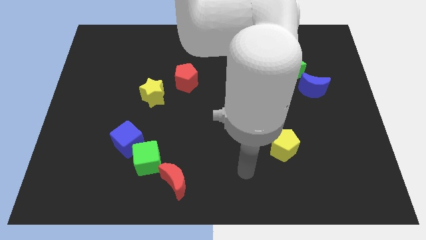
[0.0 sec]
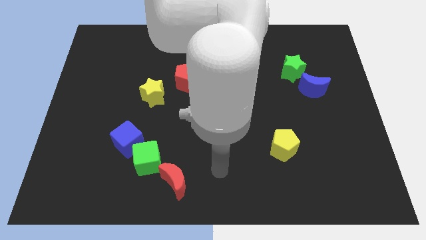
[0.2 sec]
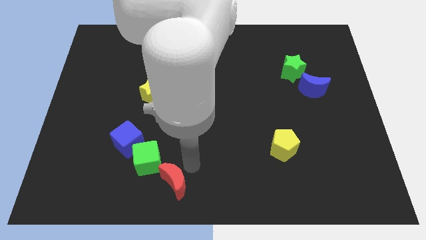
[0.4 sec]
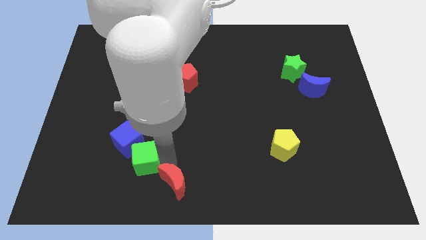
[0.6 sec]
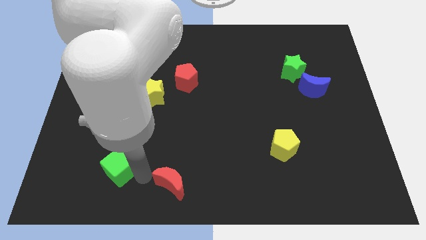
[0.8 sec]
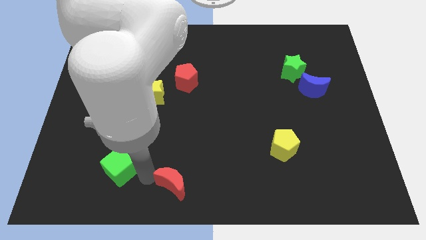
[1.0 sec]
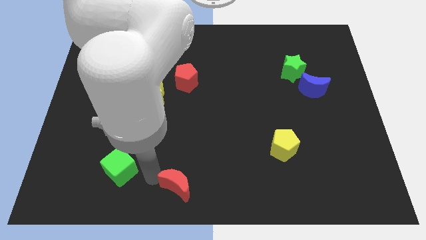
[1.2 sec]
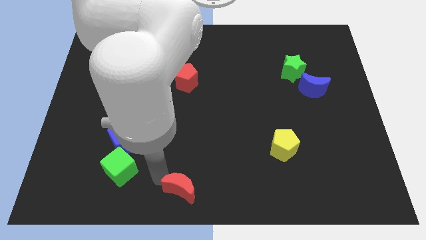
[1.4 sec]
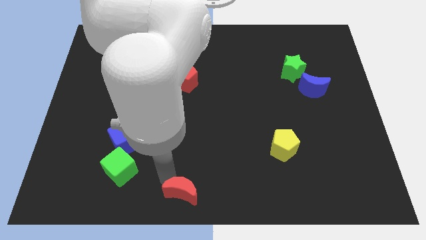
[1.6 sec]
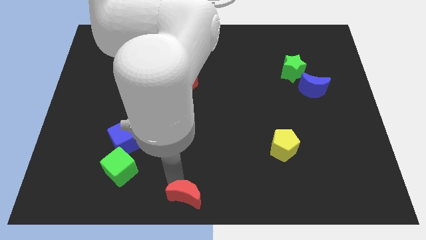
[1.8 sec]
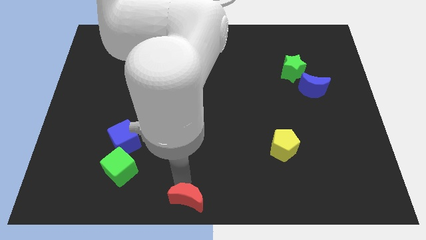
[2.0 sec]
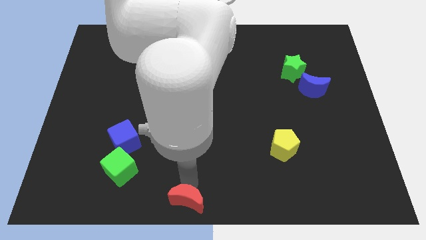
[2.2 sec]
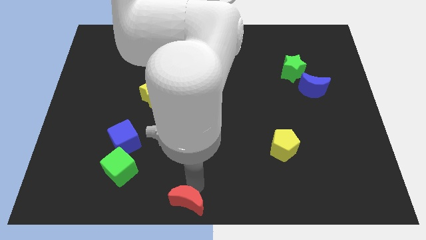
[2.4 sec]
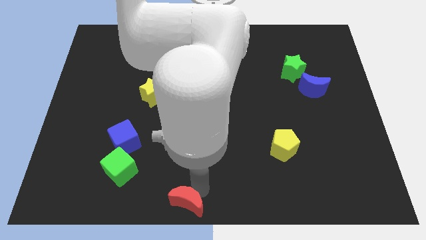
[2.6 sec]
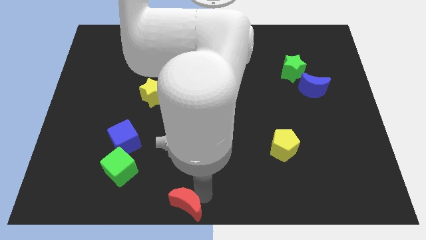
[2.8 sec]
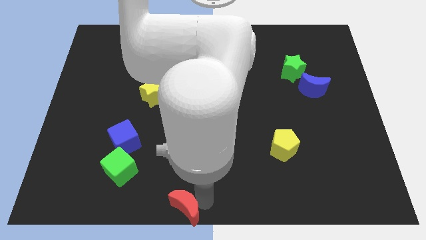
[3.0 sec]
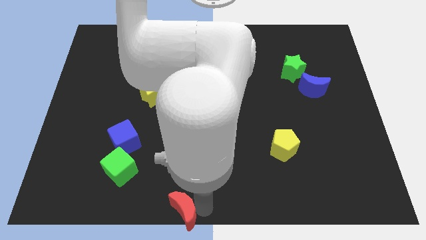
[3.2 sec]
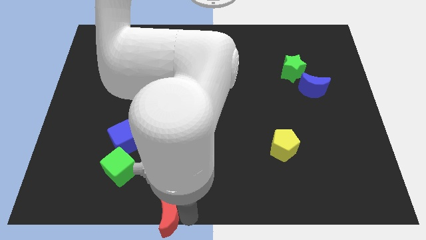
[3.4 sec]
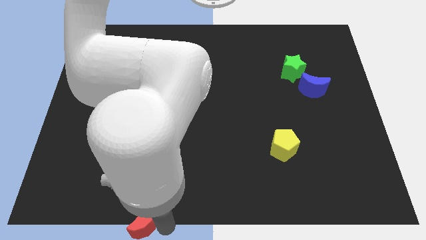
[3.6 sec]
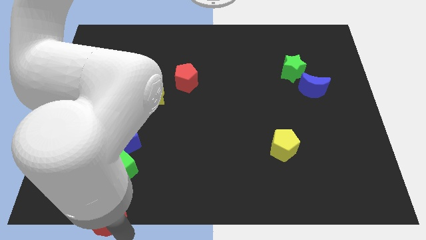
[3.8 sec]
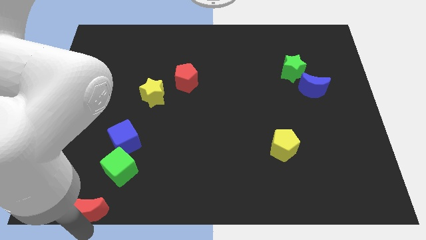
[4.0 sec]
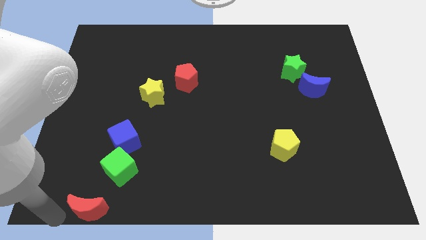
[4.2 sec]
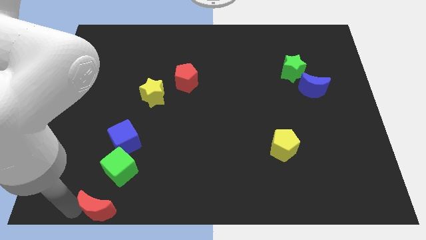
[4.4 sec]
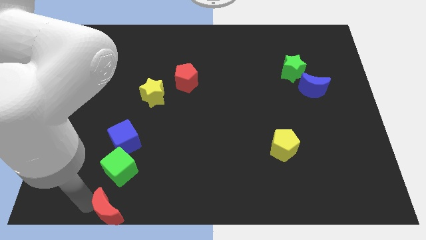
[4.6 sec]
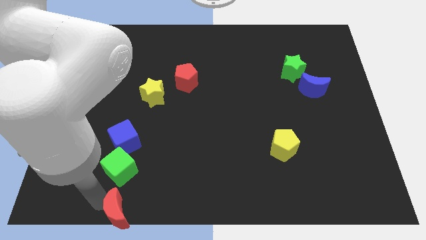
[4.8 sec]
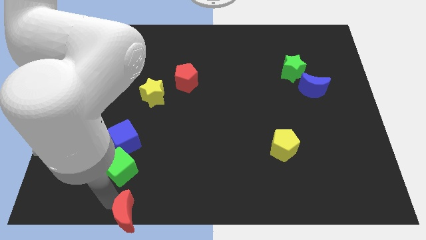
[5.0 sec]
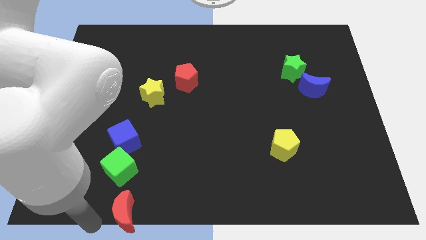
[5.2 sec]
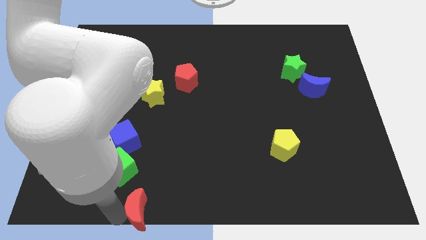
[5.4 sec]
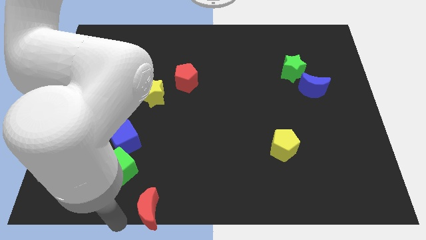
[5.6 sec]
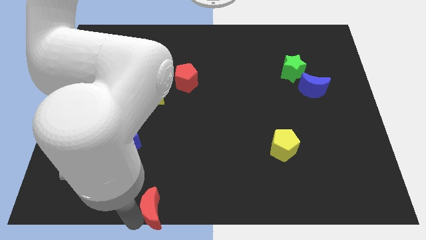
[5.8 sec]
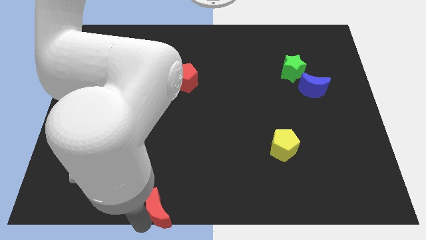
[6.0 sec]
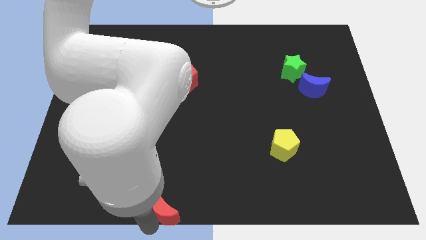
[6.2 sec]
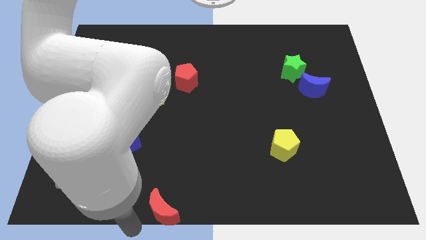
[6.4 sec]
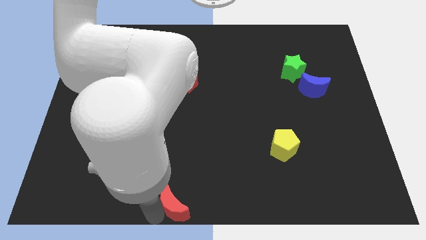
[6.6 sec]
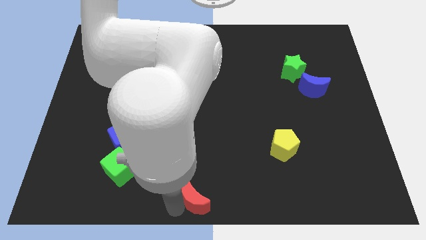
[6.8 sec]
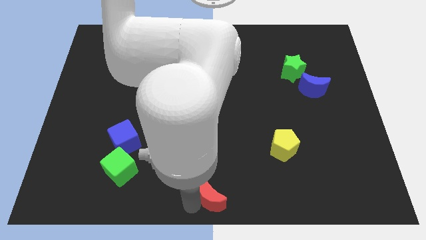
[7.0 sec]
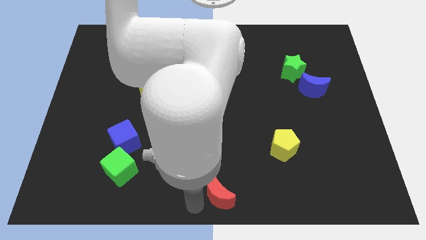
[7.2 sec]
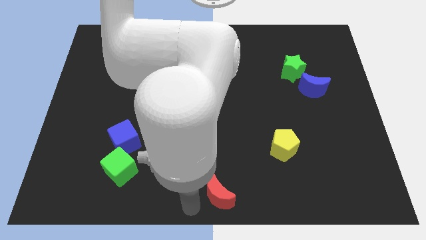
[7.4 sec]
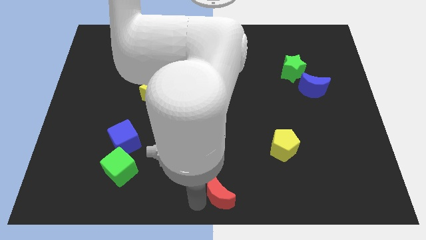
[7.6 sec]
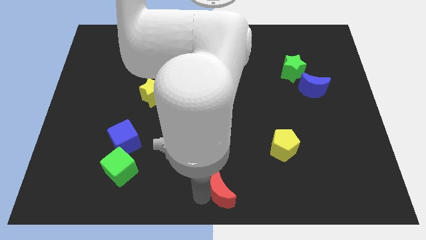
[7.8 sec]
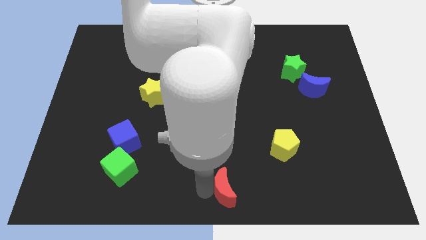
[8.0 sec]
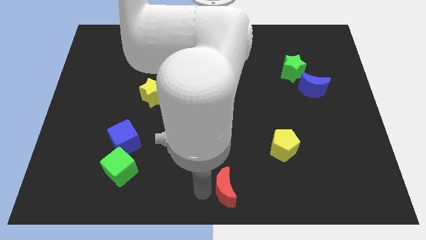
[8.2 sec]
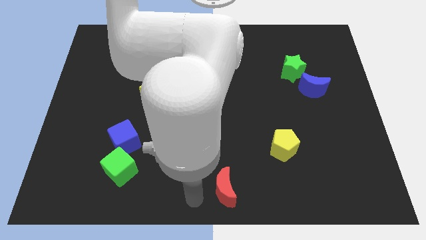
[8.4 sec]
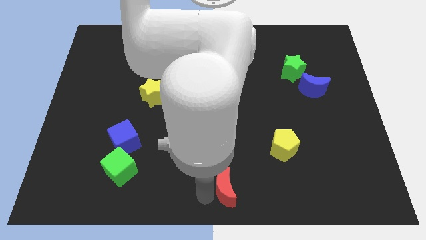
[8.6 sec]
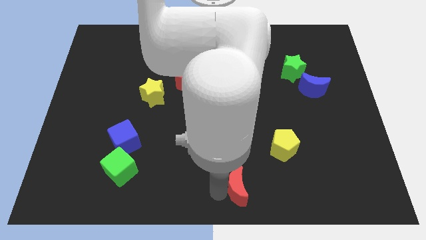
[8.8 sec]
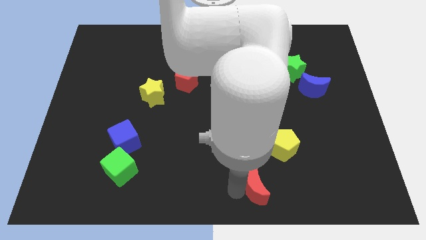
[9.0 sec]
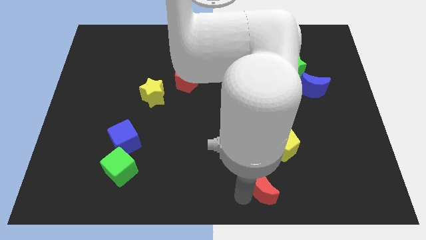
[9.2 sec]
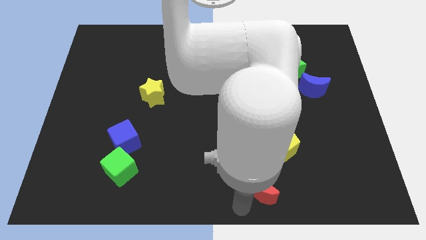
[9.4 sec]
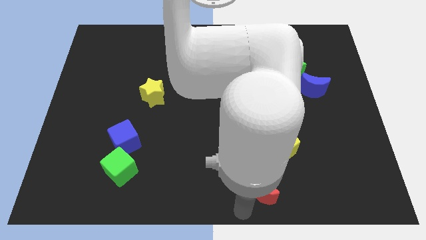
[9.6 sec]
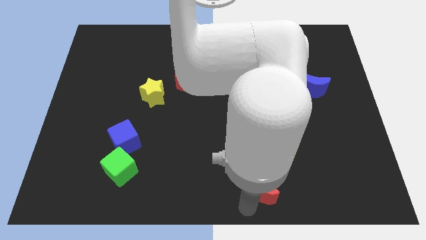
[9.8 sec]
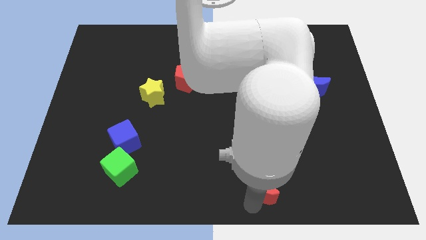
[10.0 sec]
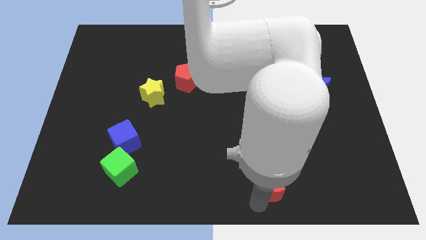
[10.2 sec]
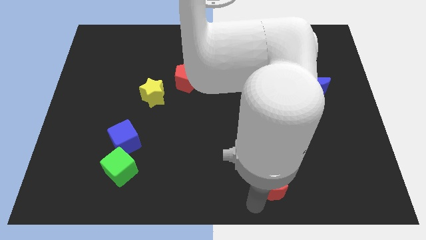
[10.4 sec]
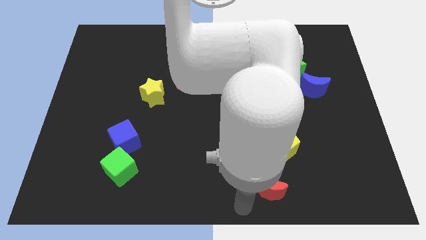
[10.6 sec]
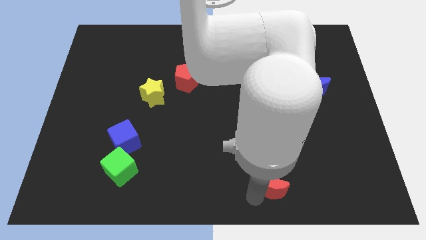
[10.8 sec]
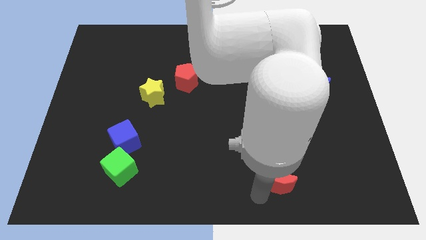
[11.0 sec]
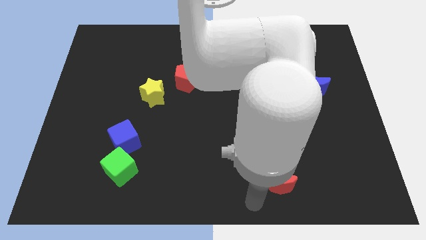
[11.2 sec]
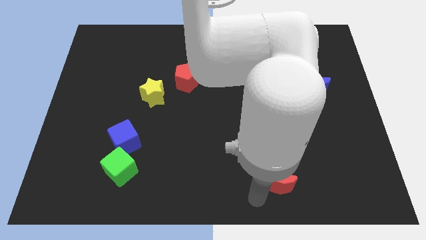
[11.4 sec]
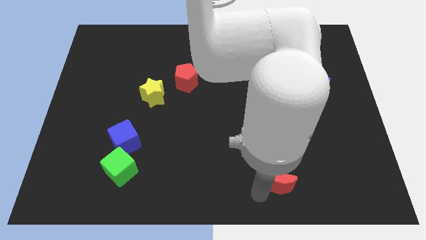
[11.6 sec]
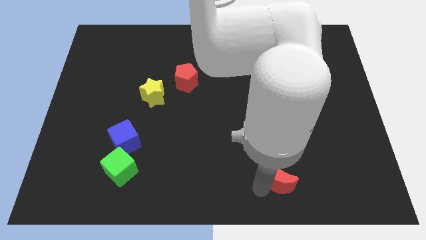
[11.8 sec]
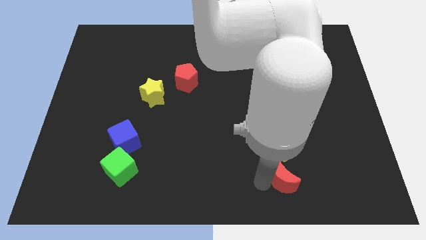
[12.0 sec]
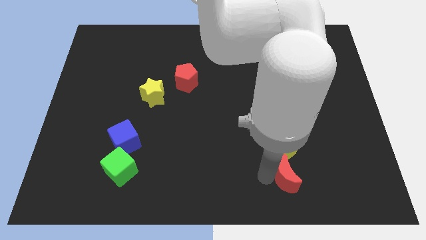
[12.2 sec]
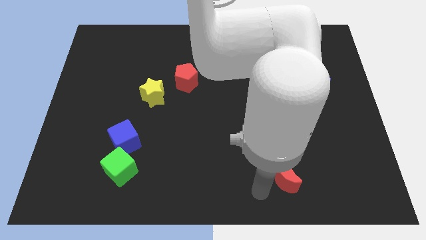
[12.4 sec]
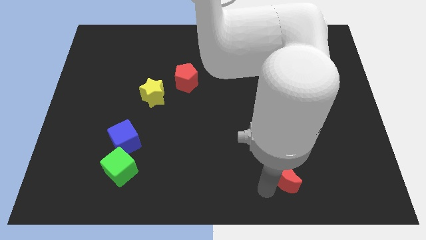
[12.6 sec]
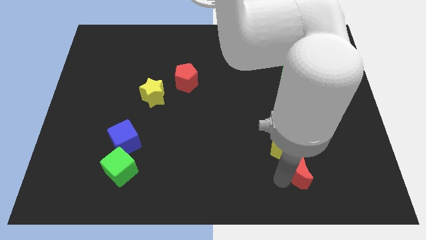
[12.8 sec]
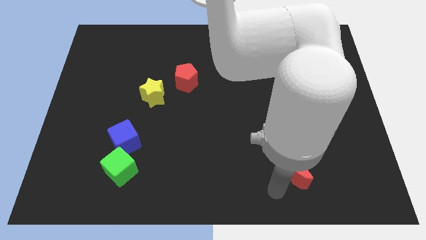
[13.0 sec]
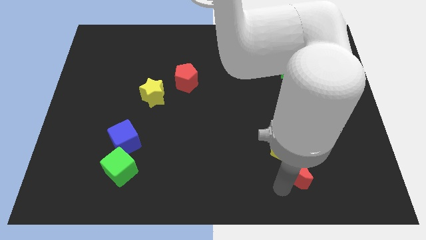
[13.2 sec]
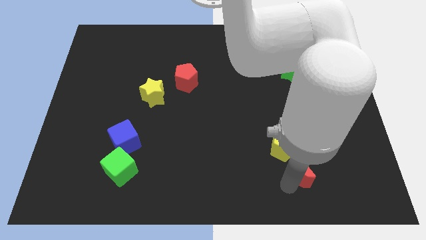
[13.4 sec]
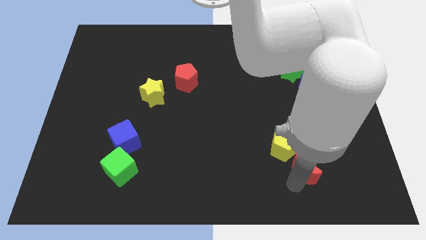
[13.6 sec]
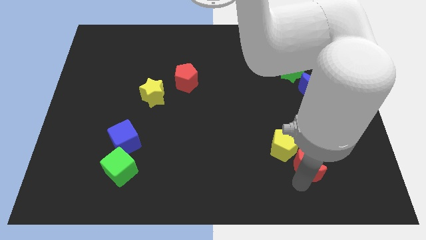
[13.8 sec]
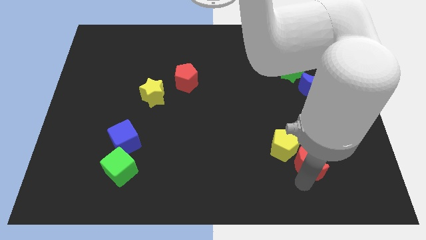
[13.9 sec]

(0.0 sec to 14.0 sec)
slide the red moon to the right of the yellow pentagon

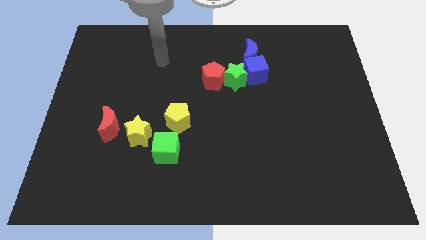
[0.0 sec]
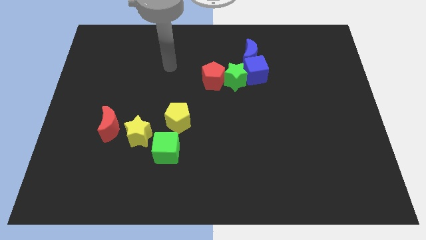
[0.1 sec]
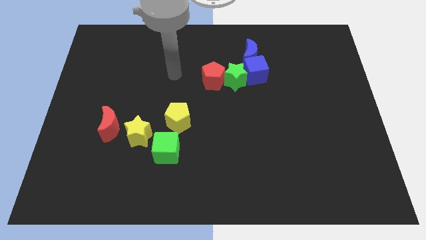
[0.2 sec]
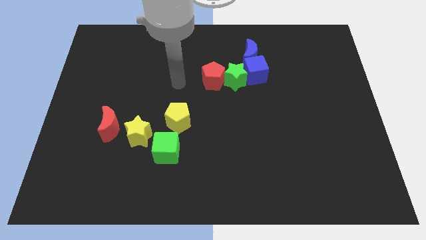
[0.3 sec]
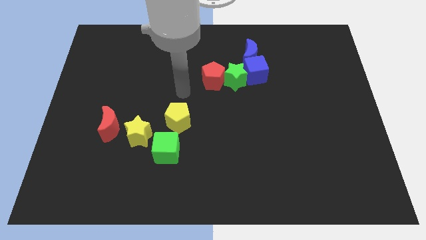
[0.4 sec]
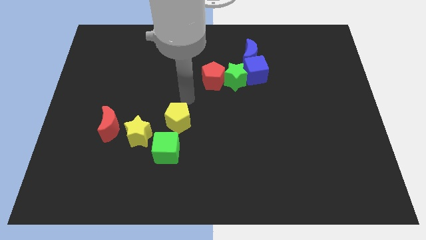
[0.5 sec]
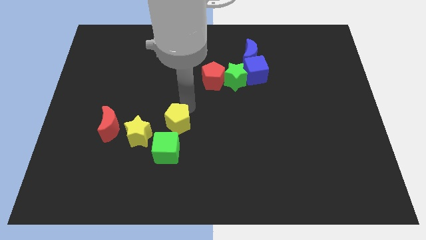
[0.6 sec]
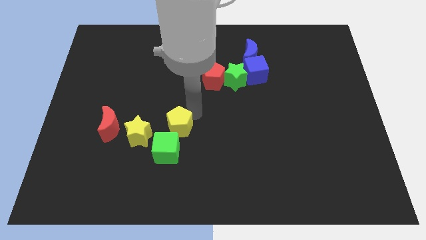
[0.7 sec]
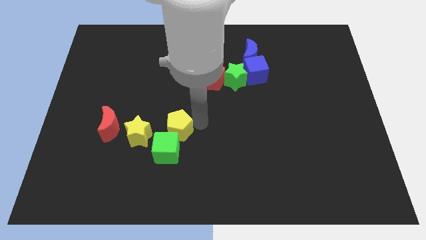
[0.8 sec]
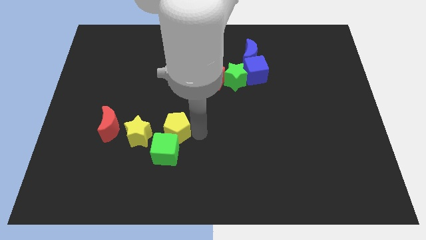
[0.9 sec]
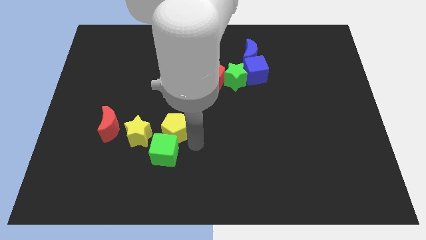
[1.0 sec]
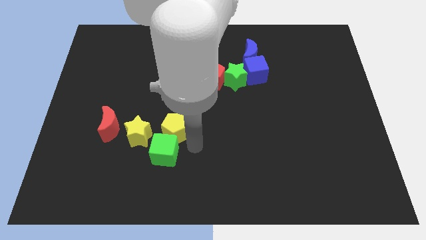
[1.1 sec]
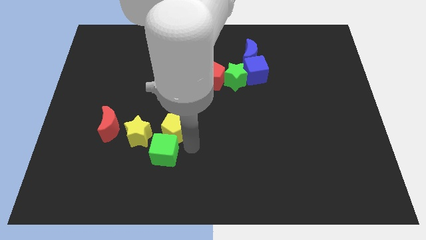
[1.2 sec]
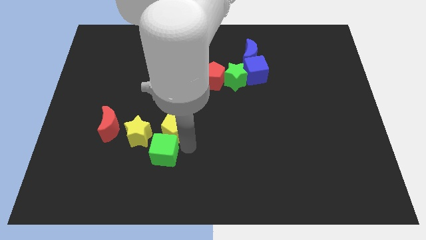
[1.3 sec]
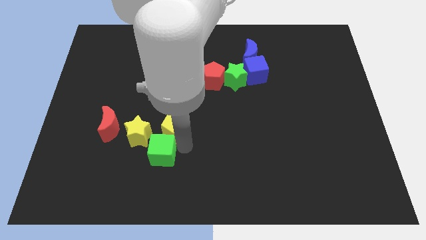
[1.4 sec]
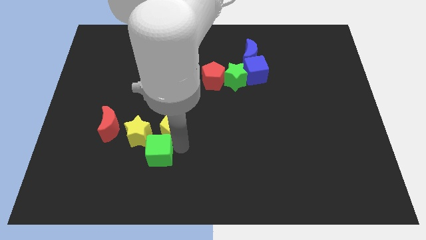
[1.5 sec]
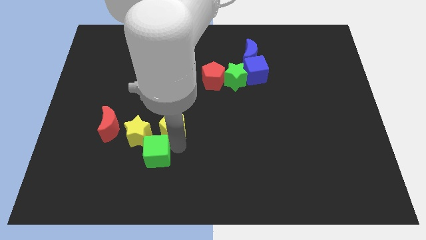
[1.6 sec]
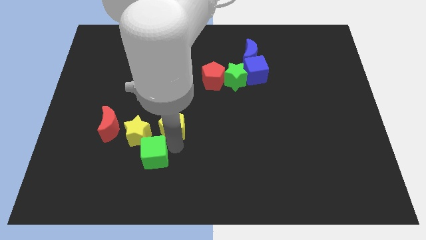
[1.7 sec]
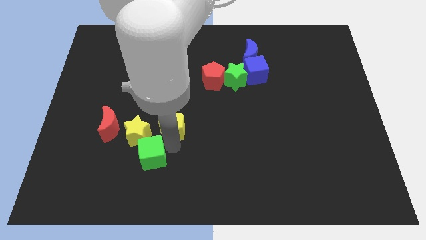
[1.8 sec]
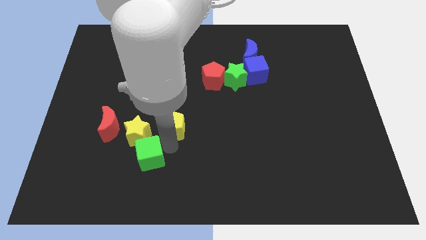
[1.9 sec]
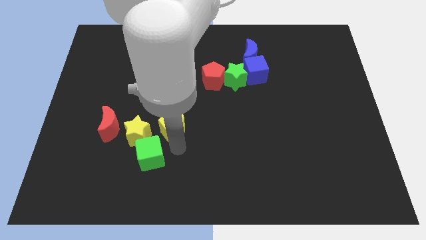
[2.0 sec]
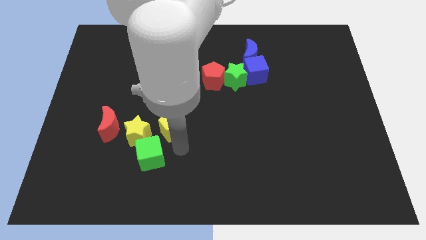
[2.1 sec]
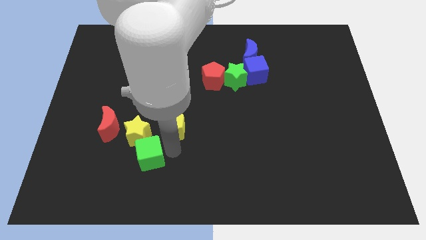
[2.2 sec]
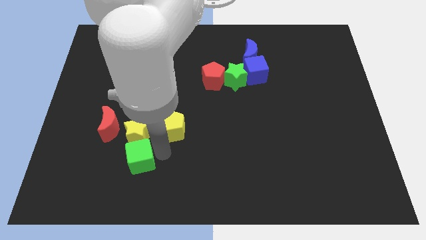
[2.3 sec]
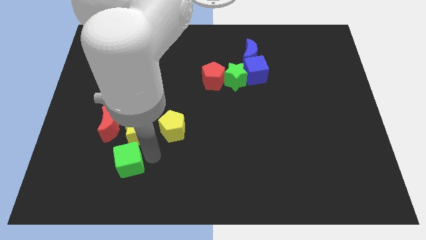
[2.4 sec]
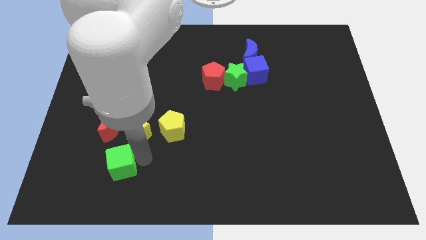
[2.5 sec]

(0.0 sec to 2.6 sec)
move the green cube to the bottom side of the red moon
